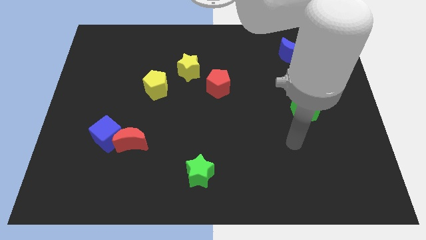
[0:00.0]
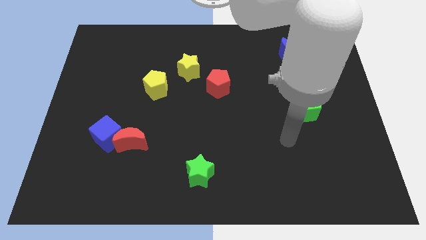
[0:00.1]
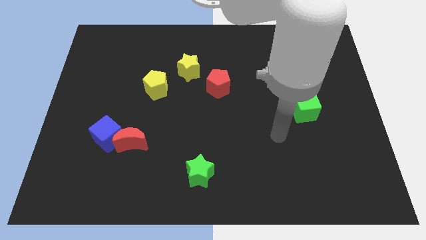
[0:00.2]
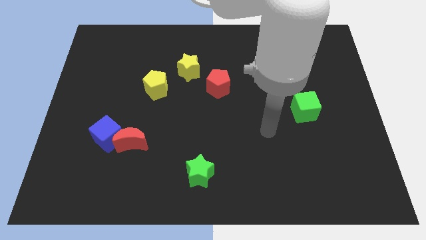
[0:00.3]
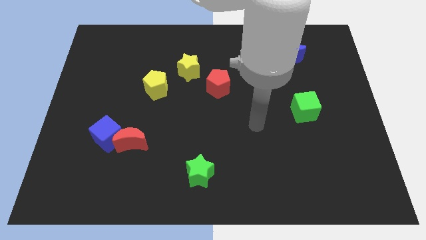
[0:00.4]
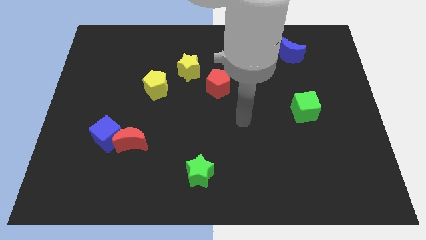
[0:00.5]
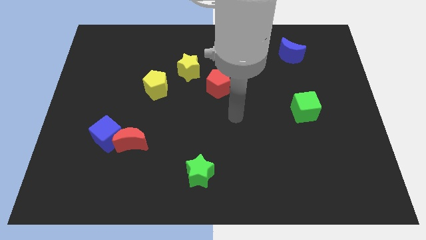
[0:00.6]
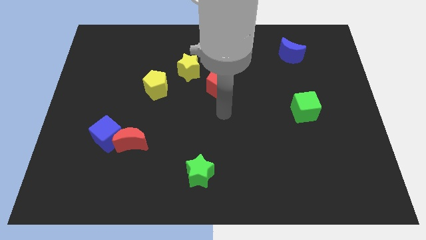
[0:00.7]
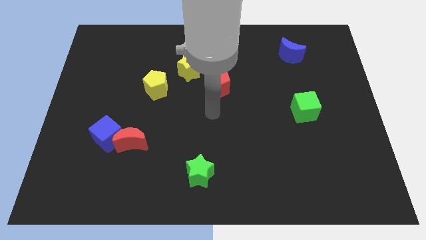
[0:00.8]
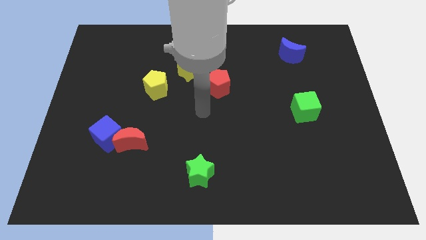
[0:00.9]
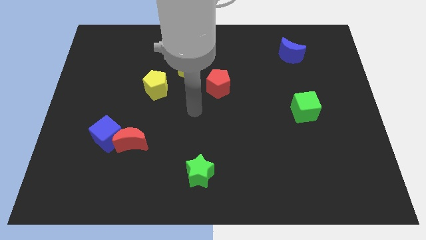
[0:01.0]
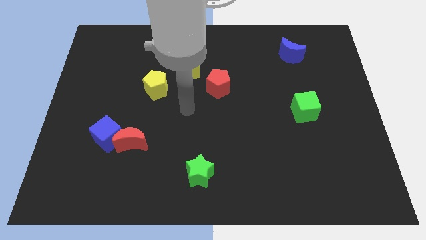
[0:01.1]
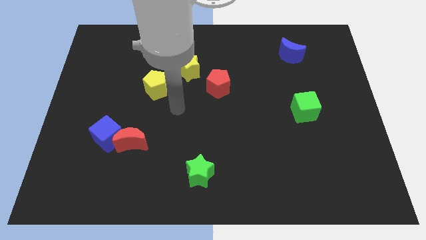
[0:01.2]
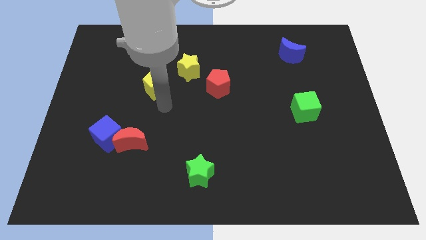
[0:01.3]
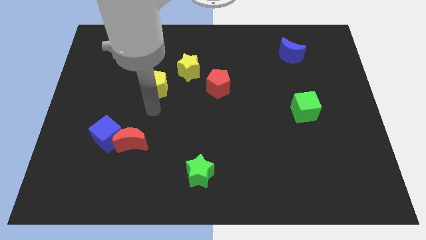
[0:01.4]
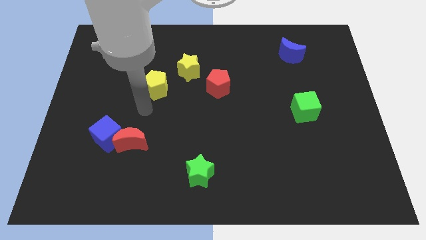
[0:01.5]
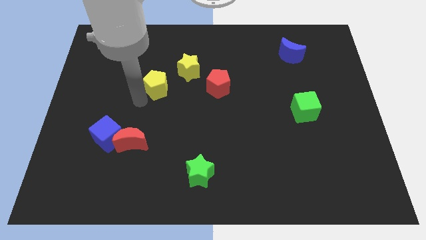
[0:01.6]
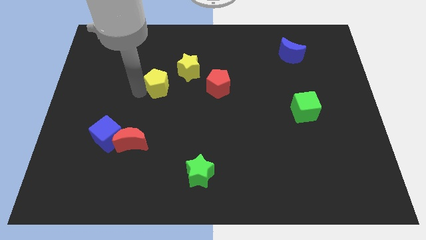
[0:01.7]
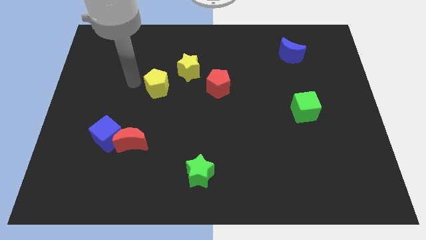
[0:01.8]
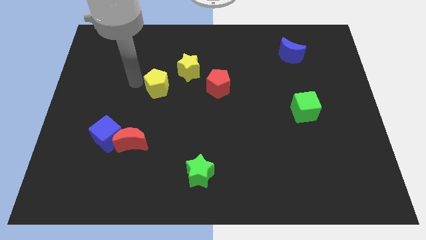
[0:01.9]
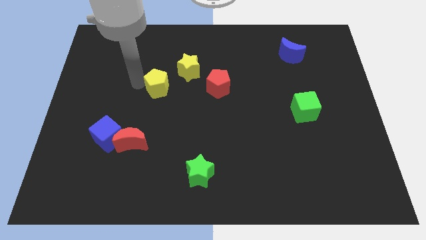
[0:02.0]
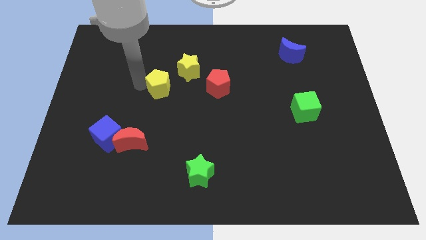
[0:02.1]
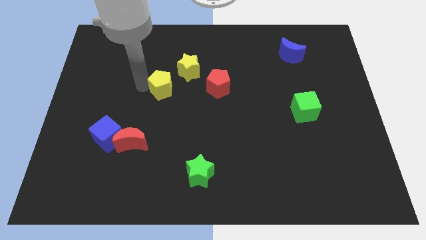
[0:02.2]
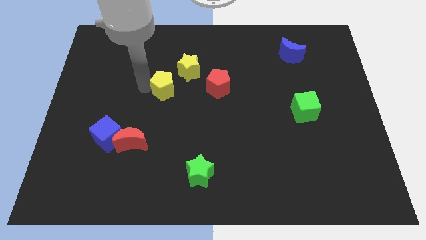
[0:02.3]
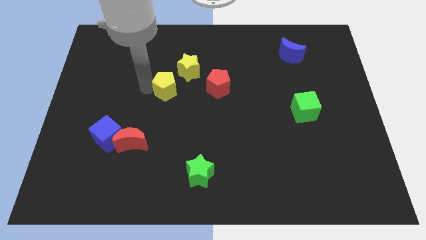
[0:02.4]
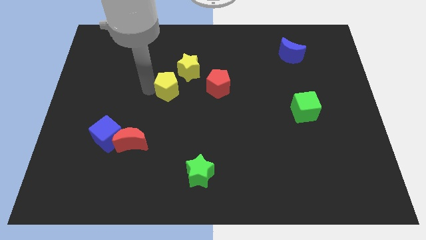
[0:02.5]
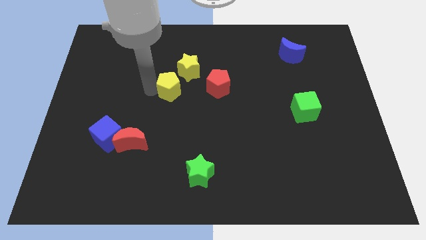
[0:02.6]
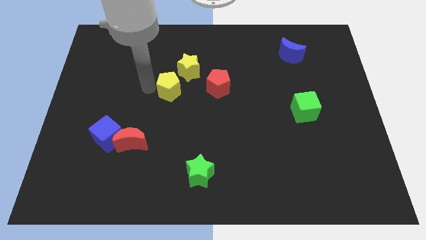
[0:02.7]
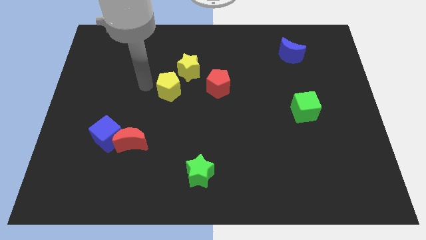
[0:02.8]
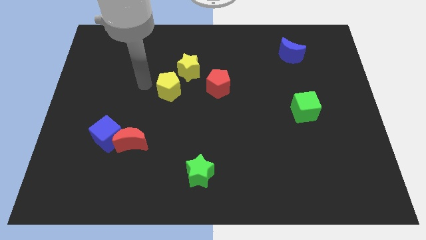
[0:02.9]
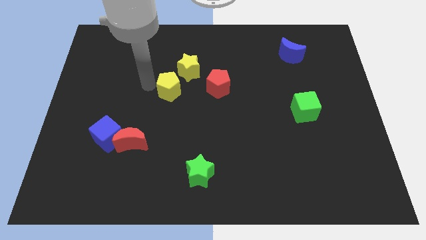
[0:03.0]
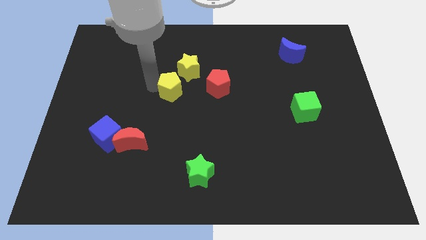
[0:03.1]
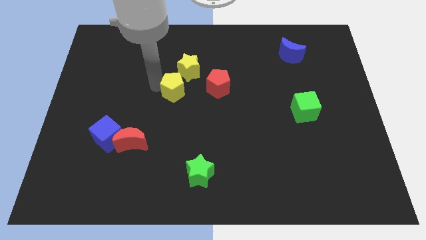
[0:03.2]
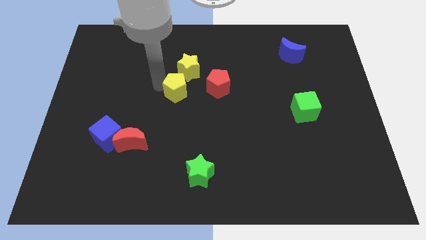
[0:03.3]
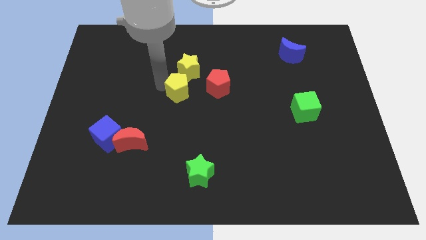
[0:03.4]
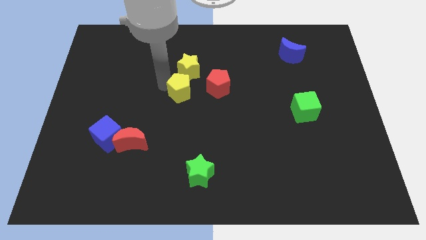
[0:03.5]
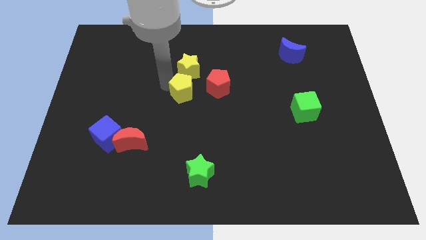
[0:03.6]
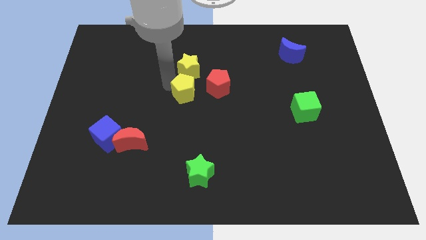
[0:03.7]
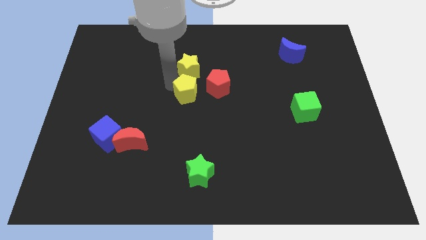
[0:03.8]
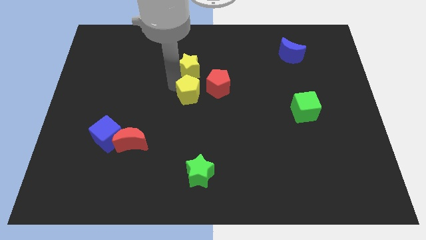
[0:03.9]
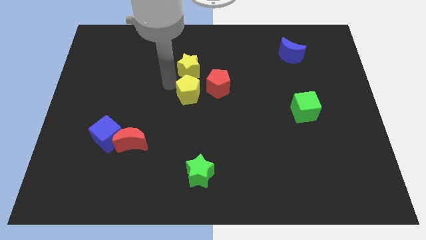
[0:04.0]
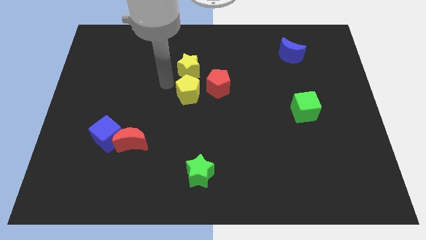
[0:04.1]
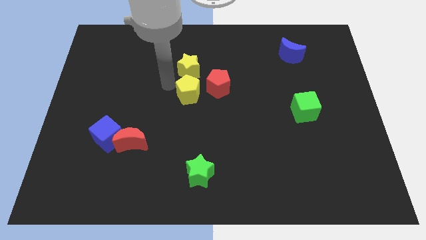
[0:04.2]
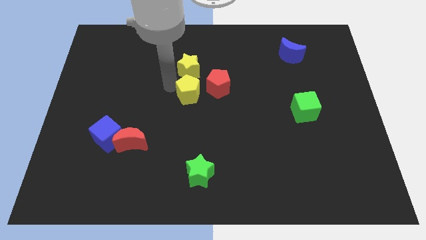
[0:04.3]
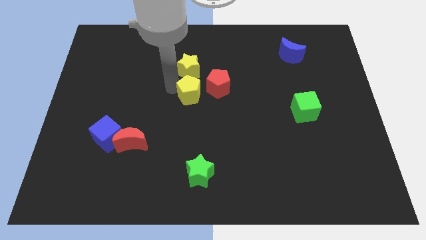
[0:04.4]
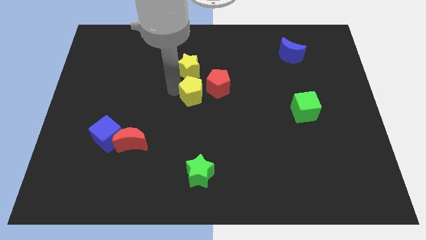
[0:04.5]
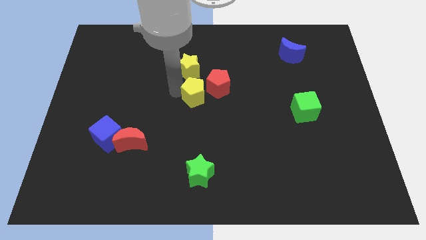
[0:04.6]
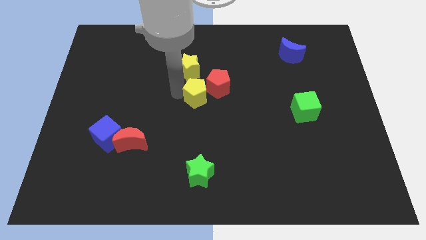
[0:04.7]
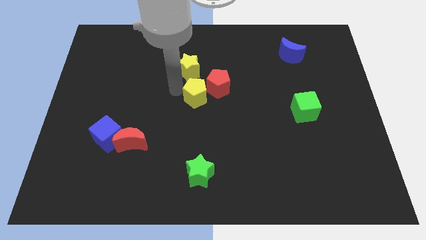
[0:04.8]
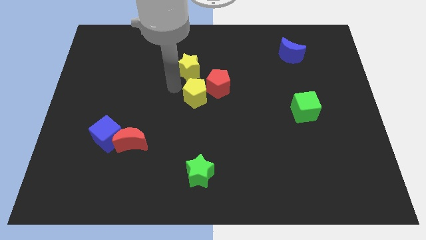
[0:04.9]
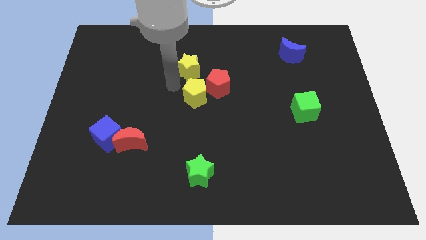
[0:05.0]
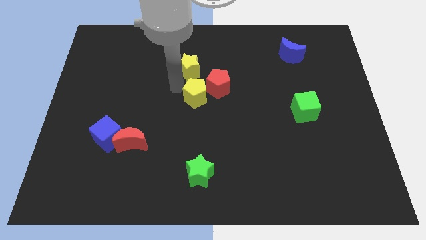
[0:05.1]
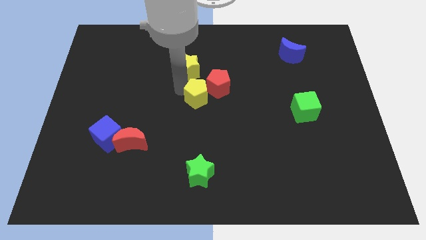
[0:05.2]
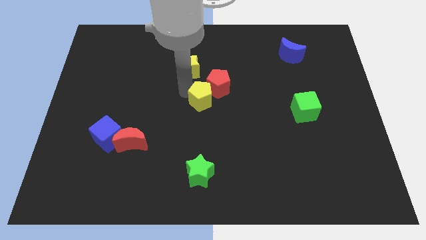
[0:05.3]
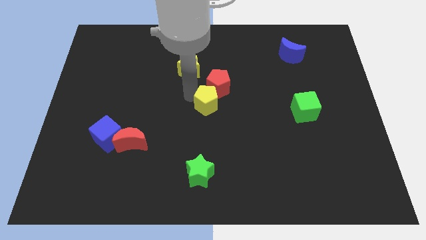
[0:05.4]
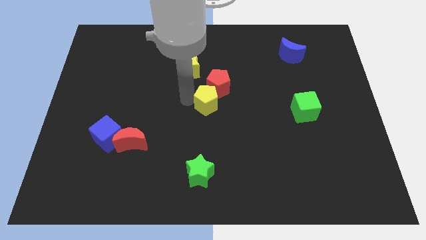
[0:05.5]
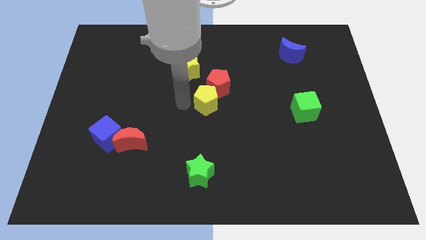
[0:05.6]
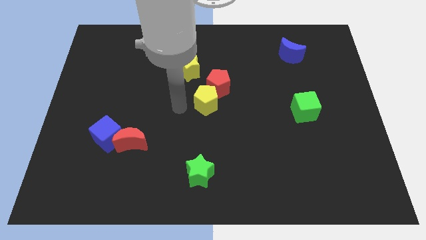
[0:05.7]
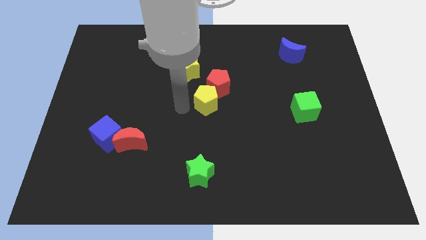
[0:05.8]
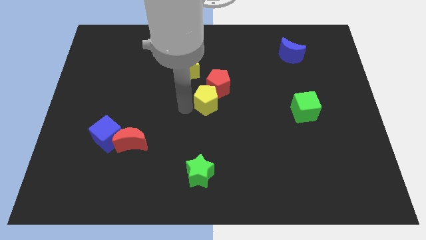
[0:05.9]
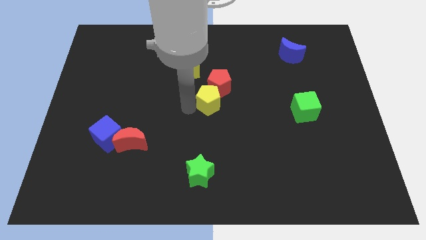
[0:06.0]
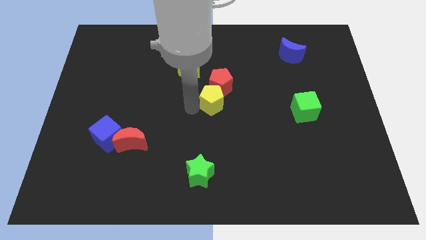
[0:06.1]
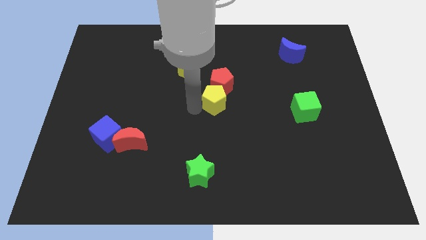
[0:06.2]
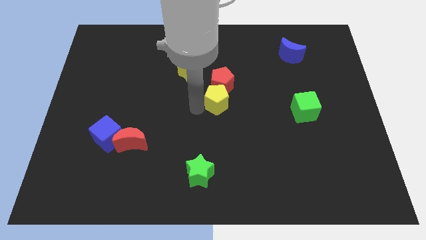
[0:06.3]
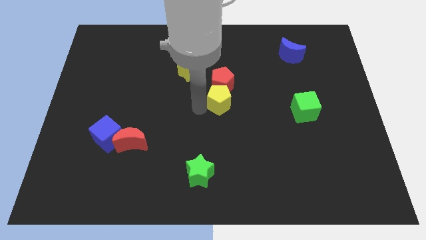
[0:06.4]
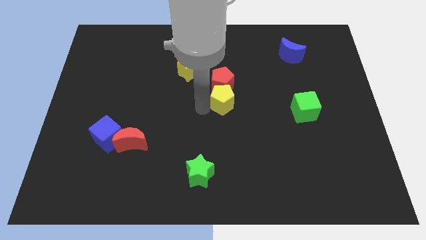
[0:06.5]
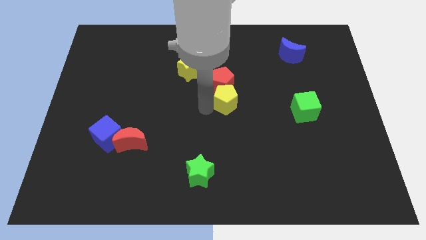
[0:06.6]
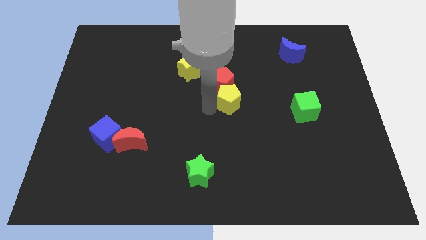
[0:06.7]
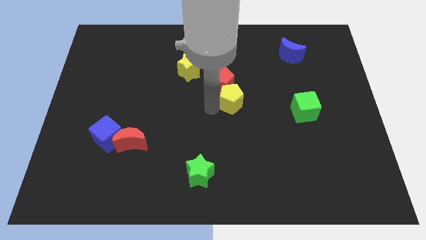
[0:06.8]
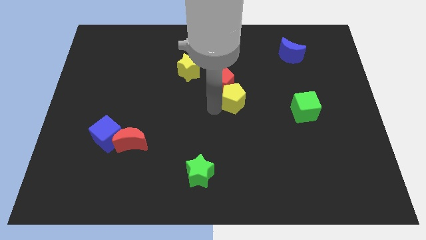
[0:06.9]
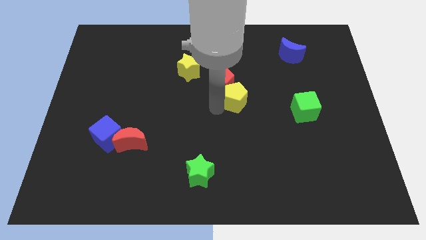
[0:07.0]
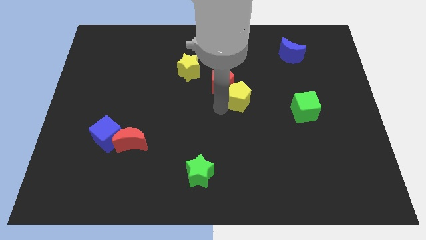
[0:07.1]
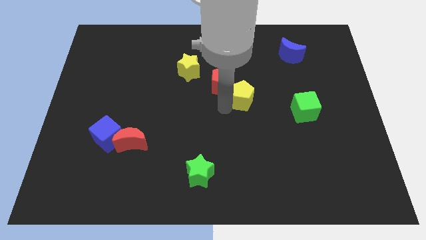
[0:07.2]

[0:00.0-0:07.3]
push the yellow pentagon to the right

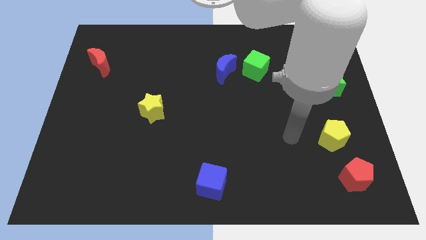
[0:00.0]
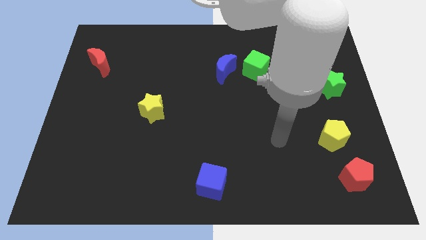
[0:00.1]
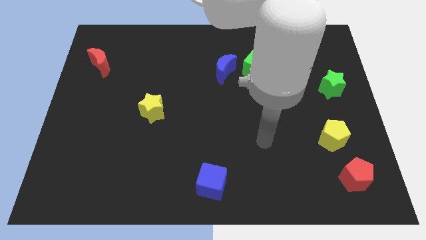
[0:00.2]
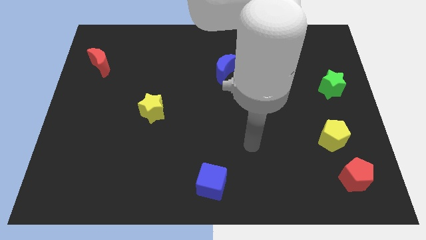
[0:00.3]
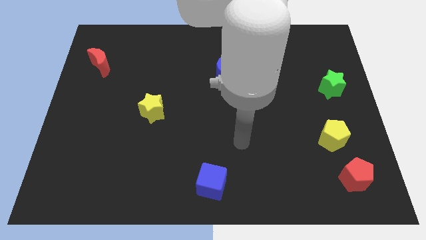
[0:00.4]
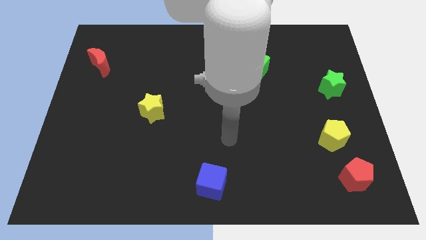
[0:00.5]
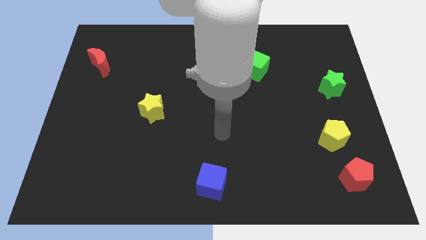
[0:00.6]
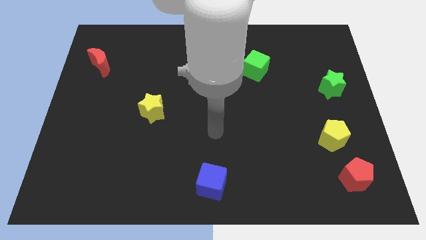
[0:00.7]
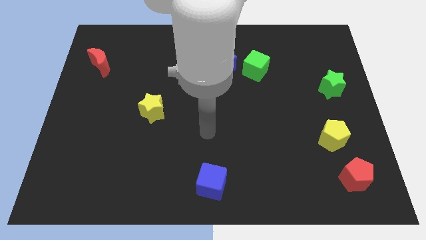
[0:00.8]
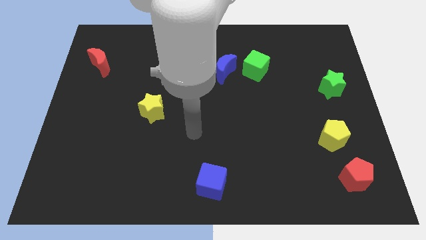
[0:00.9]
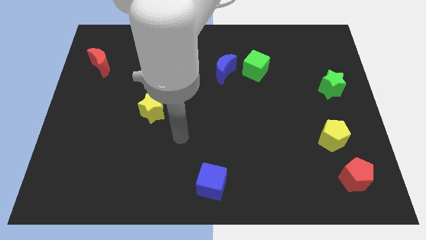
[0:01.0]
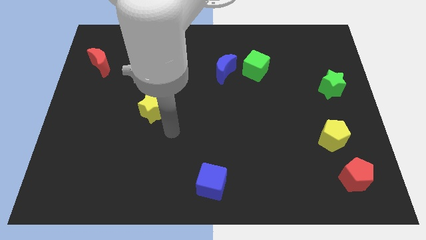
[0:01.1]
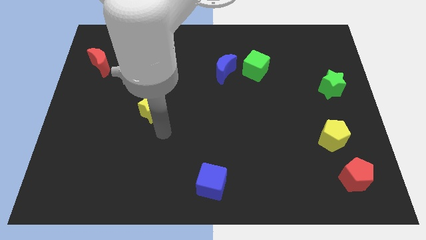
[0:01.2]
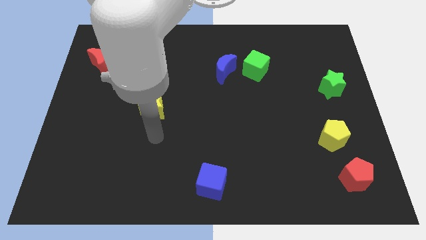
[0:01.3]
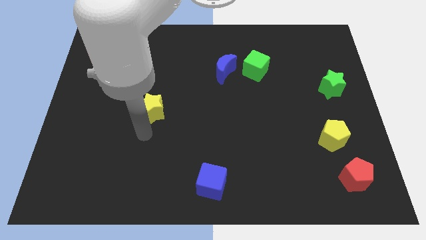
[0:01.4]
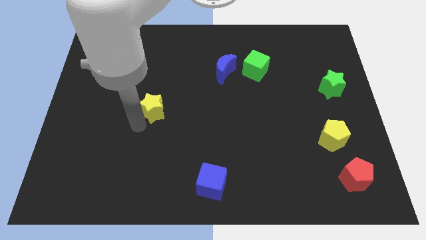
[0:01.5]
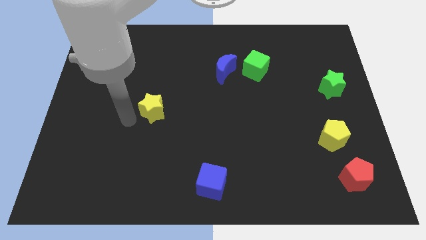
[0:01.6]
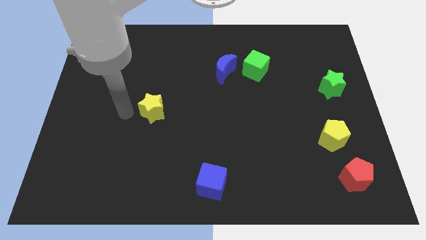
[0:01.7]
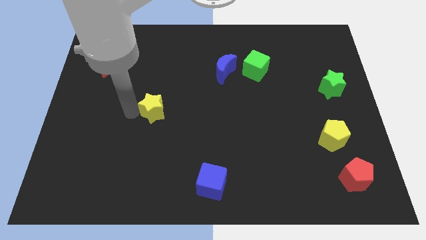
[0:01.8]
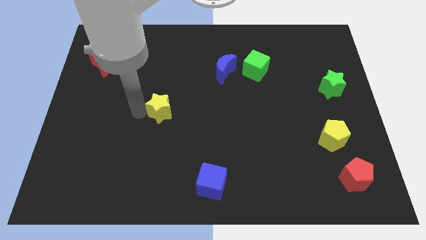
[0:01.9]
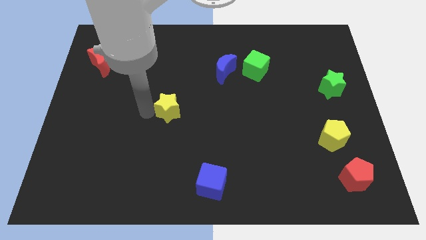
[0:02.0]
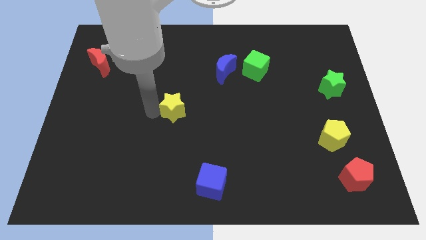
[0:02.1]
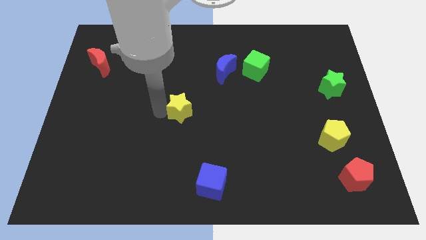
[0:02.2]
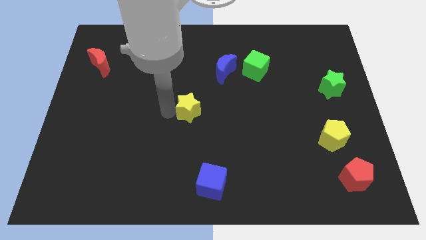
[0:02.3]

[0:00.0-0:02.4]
slightly slide the yellow star to the right
